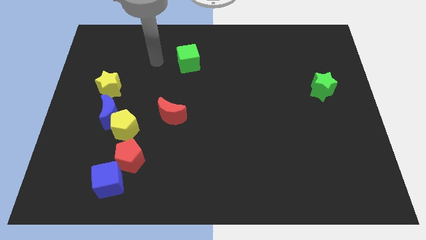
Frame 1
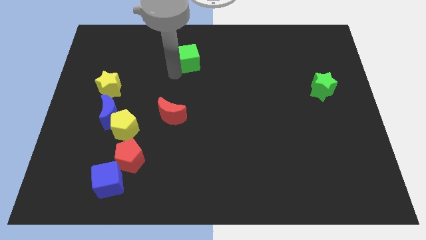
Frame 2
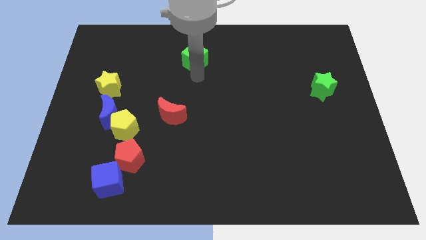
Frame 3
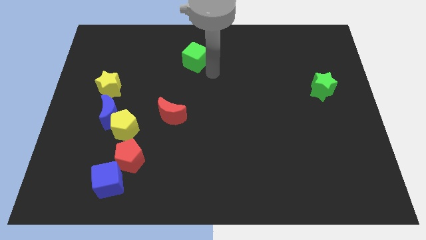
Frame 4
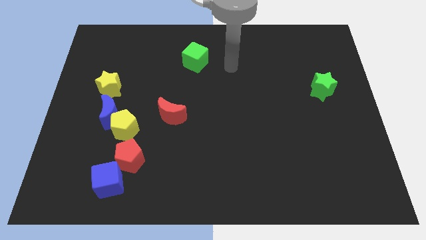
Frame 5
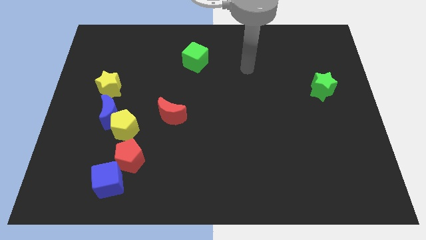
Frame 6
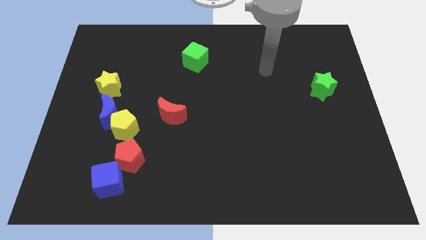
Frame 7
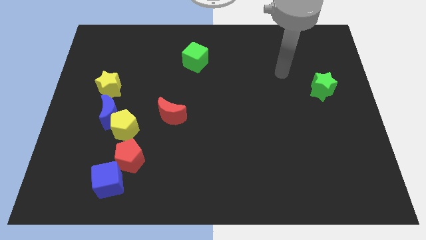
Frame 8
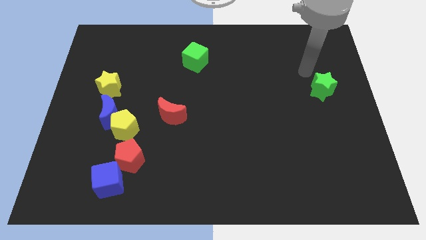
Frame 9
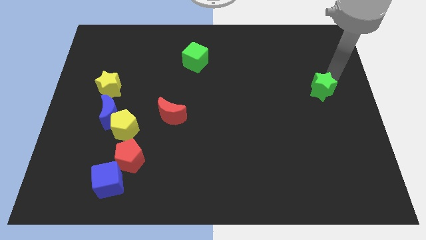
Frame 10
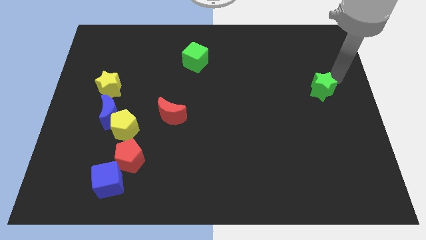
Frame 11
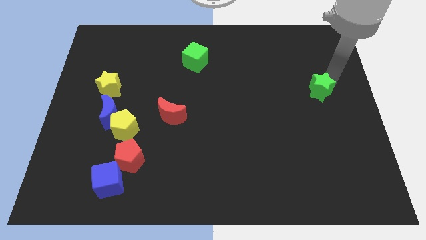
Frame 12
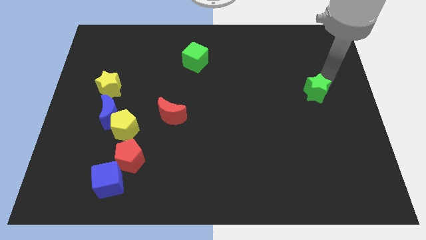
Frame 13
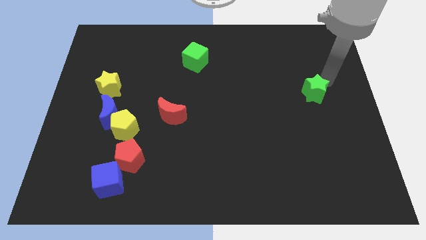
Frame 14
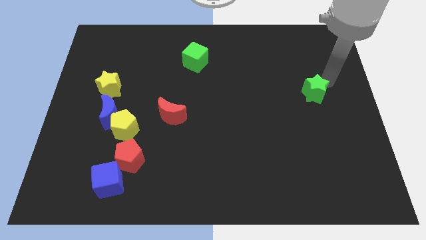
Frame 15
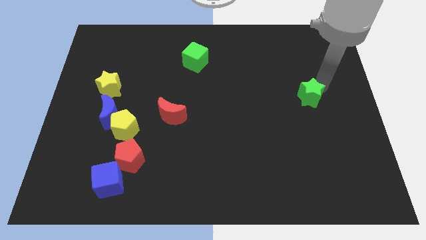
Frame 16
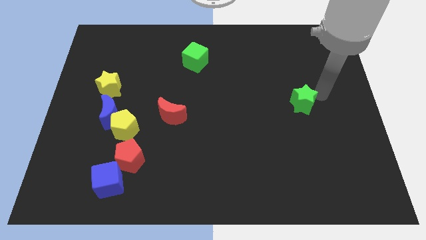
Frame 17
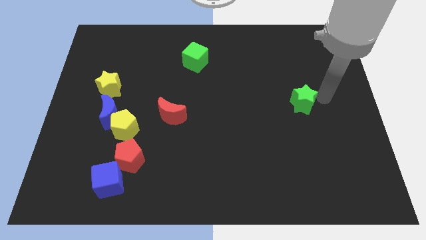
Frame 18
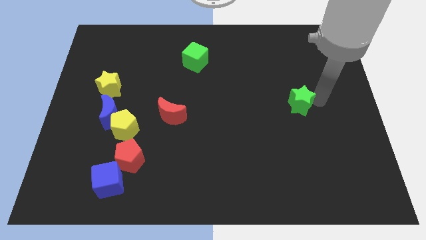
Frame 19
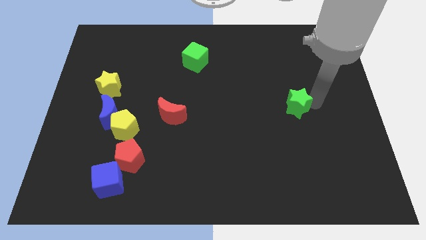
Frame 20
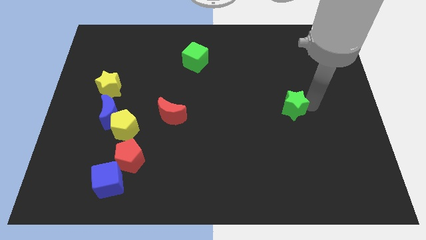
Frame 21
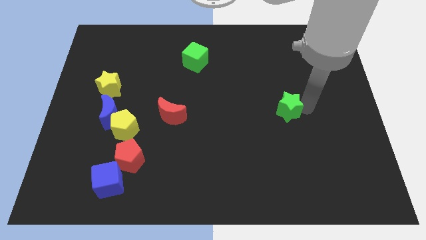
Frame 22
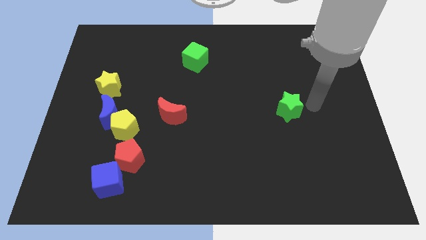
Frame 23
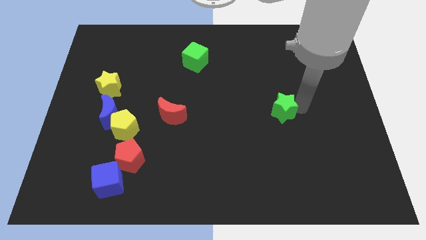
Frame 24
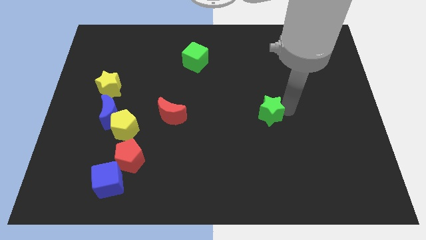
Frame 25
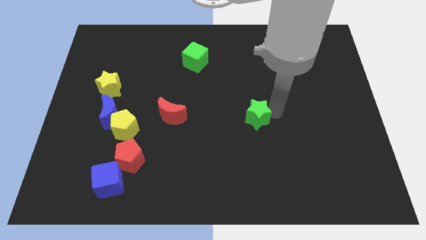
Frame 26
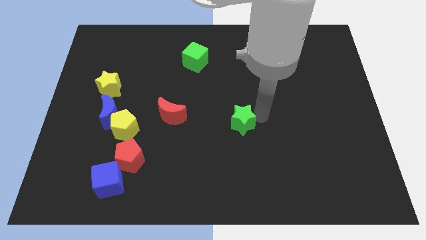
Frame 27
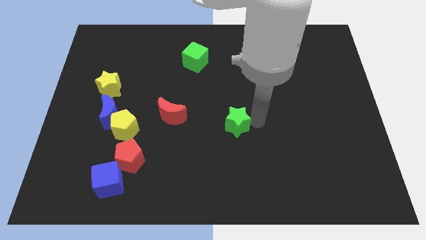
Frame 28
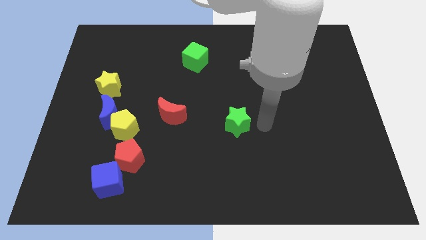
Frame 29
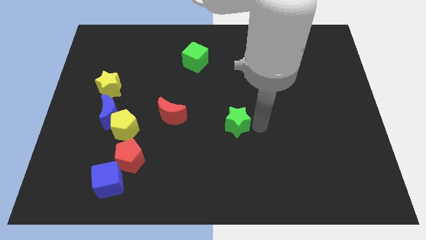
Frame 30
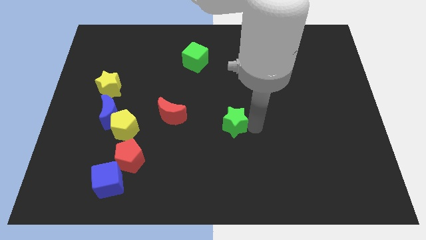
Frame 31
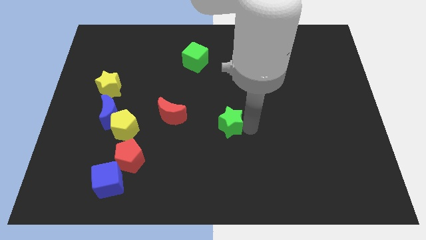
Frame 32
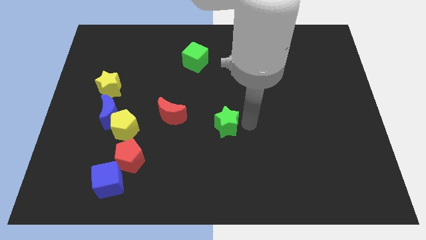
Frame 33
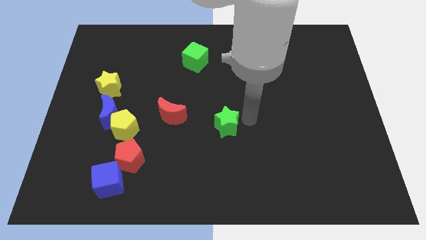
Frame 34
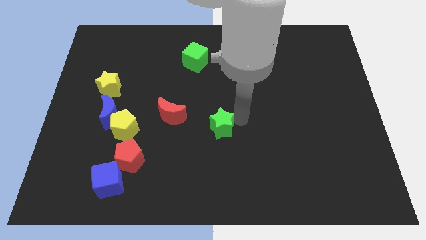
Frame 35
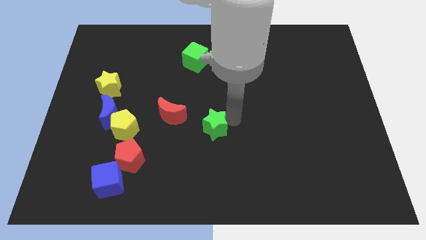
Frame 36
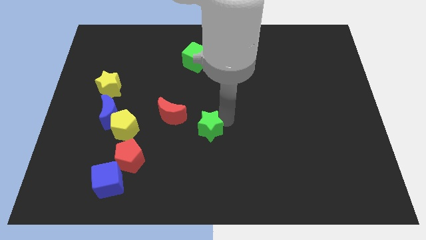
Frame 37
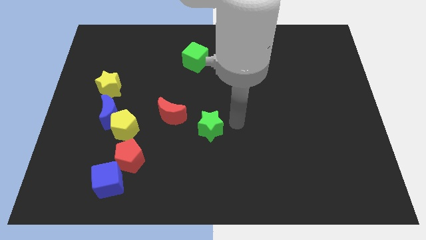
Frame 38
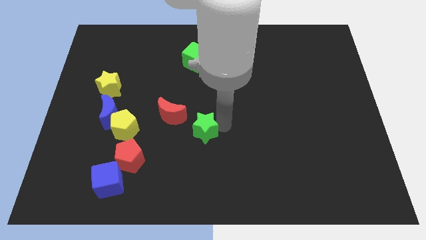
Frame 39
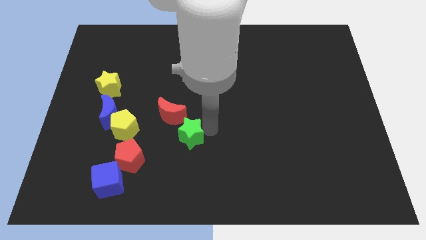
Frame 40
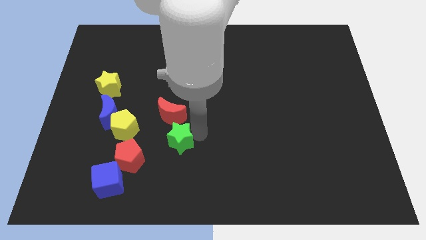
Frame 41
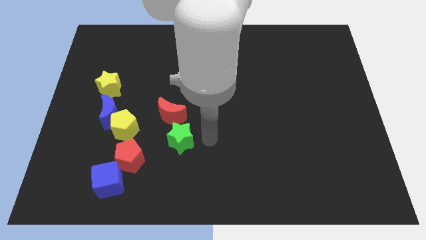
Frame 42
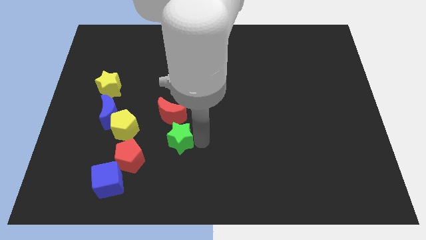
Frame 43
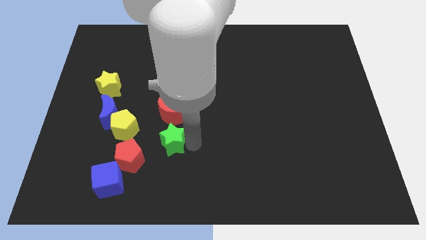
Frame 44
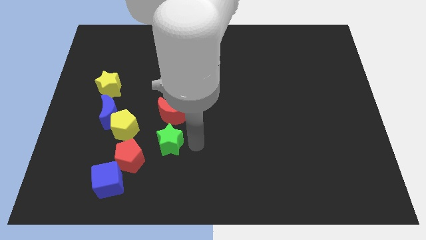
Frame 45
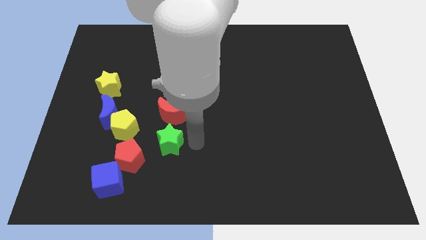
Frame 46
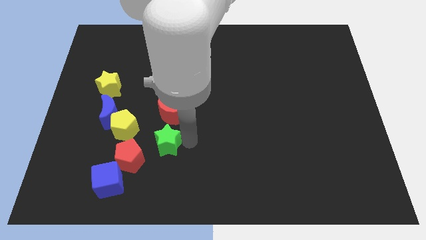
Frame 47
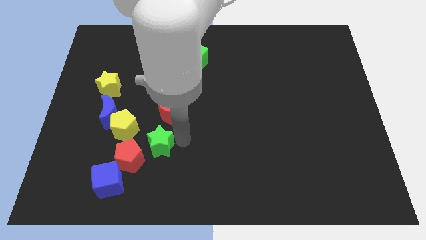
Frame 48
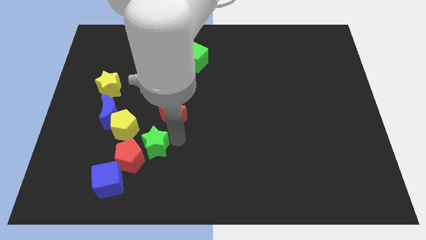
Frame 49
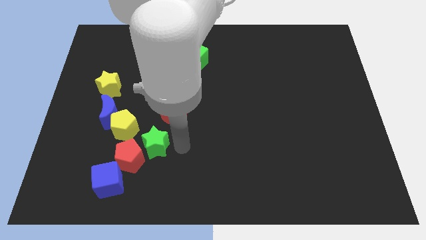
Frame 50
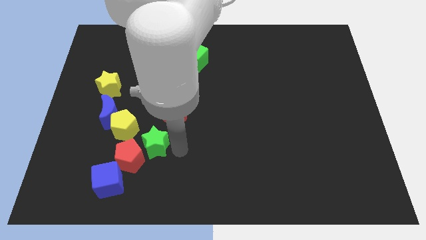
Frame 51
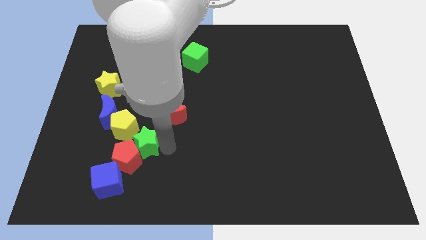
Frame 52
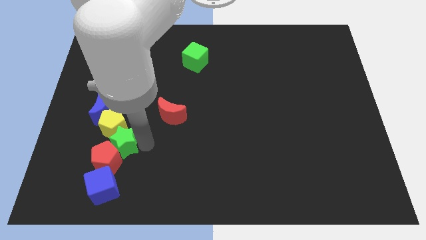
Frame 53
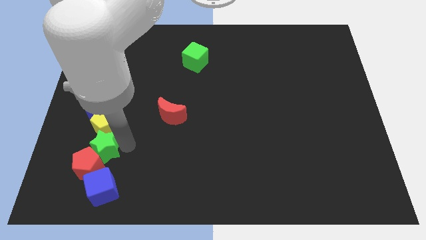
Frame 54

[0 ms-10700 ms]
put the green star to the bottom left side of the yellow pentagon

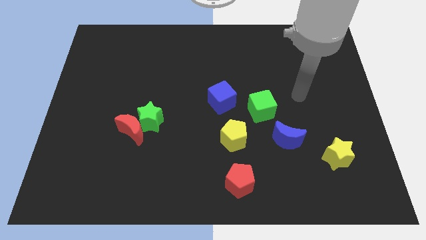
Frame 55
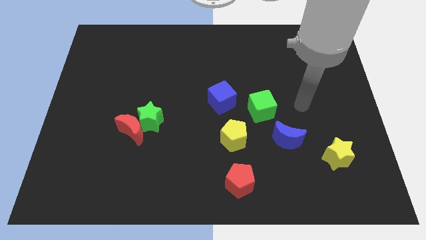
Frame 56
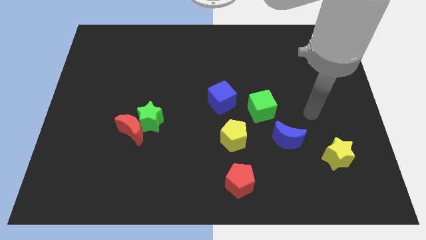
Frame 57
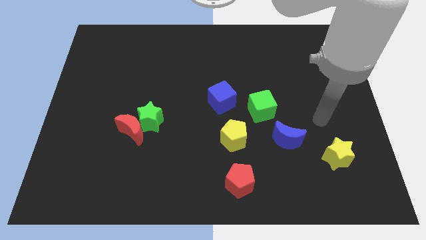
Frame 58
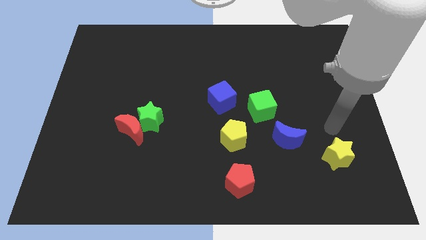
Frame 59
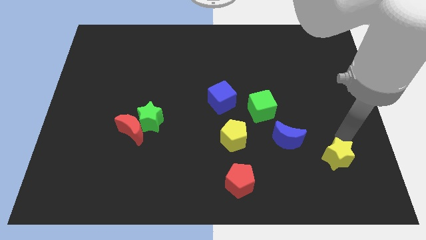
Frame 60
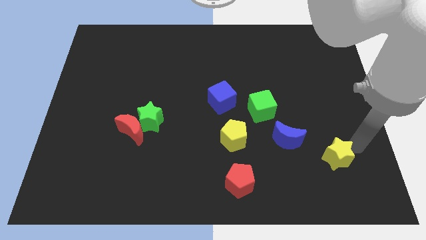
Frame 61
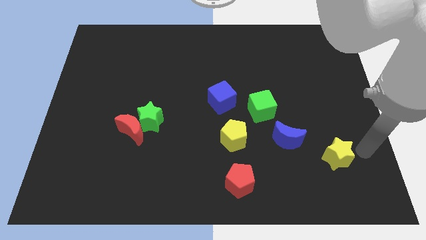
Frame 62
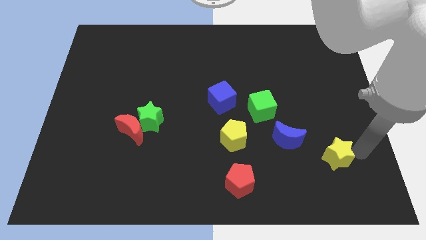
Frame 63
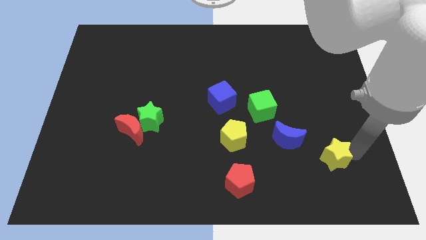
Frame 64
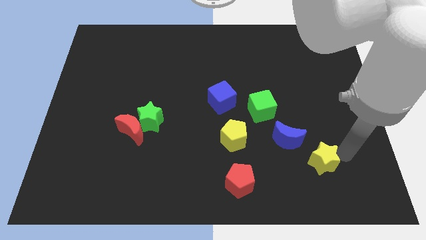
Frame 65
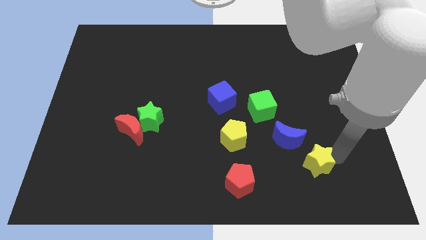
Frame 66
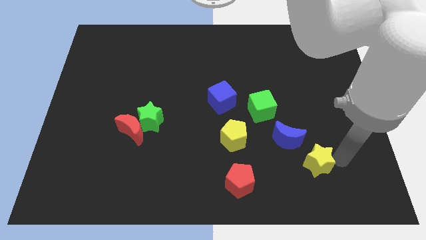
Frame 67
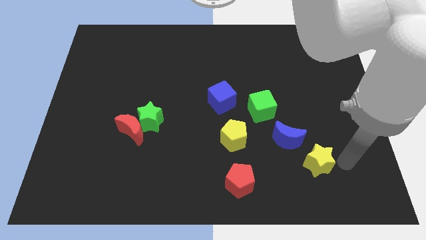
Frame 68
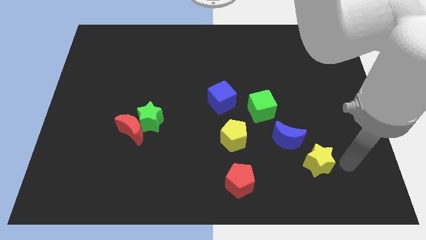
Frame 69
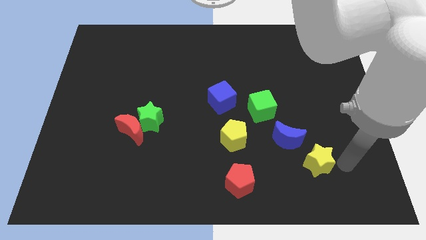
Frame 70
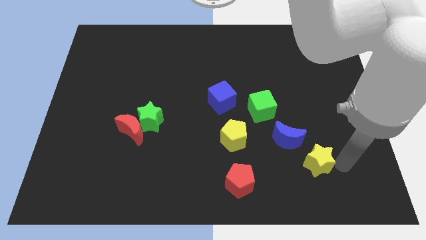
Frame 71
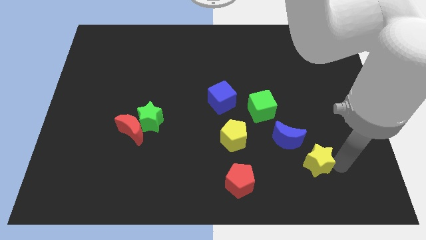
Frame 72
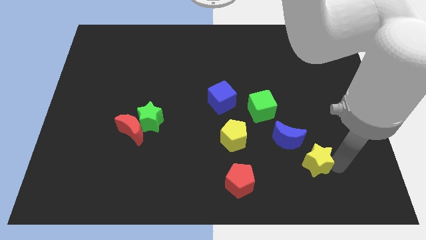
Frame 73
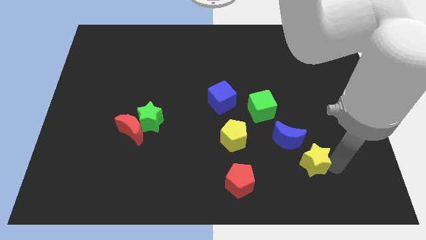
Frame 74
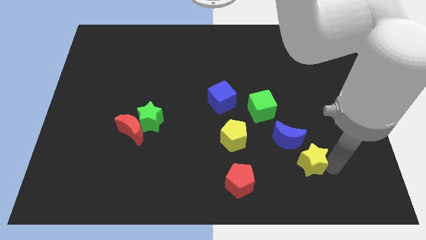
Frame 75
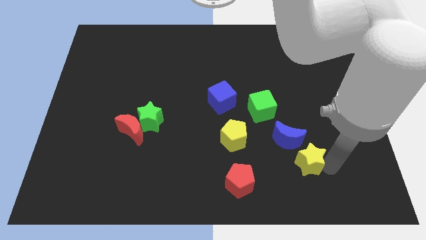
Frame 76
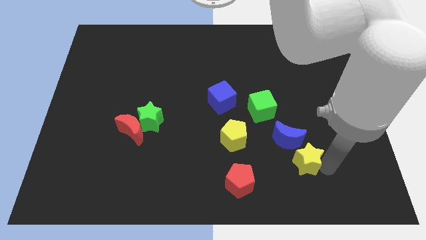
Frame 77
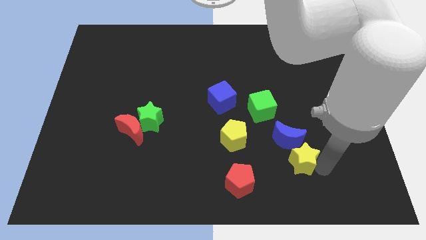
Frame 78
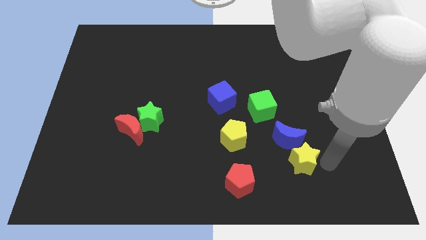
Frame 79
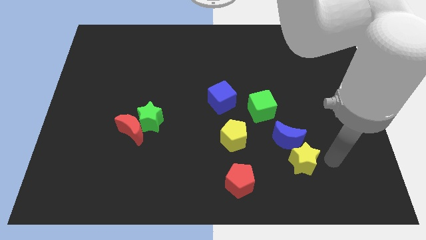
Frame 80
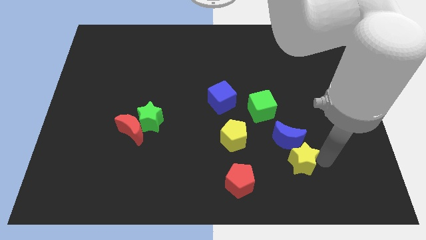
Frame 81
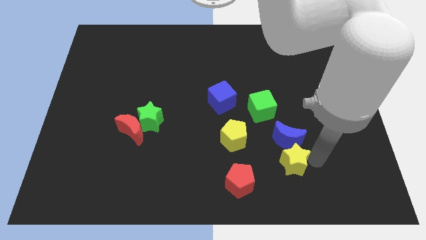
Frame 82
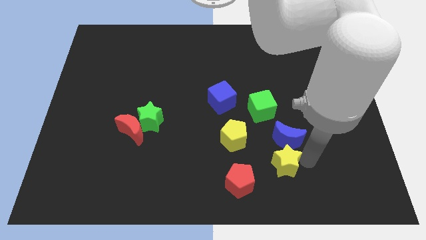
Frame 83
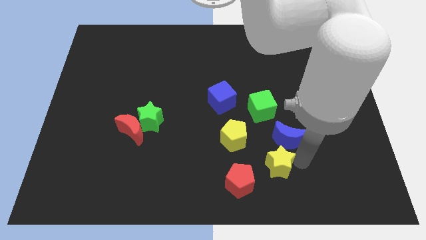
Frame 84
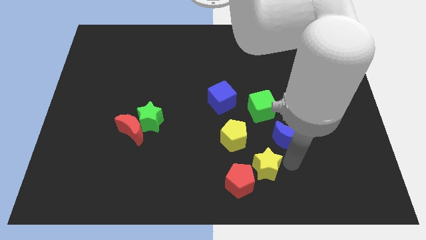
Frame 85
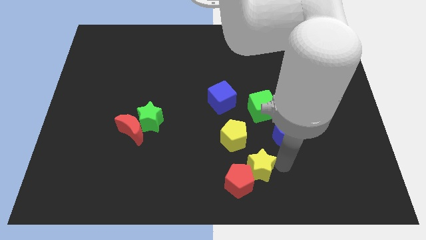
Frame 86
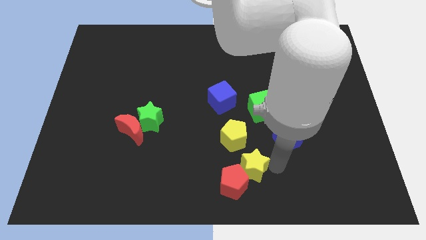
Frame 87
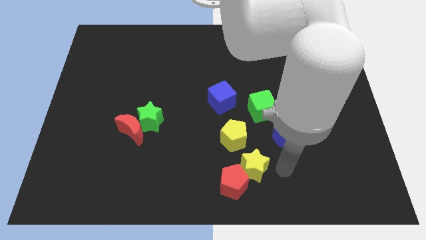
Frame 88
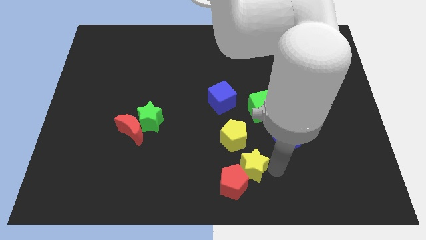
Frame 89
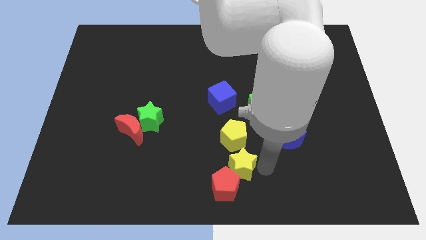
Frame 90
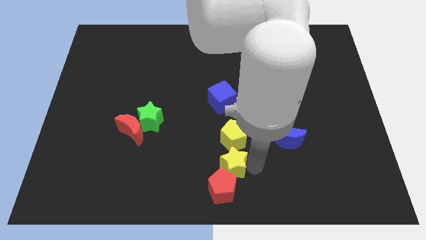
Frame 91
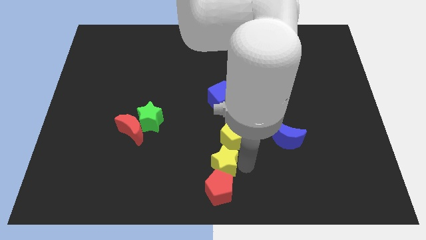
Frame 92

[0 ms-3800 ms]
slide the yellow star to the top left side of the red pentagon
